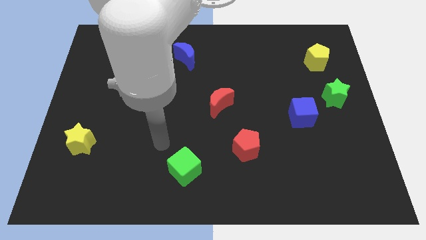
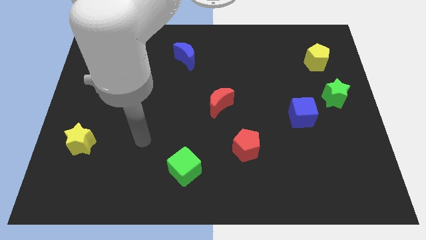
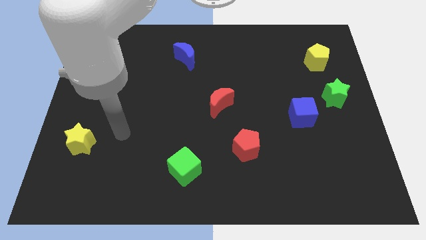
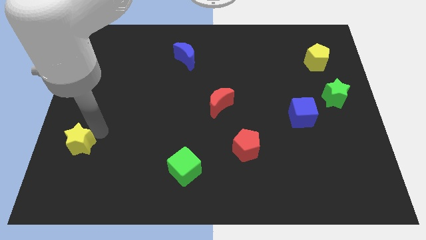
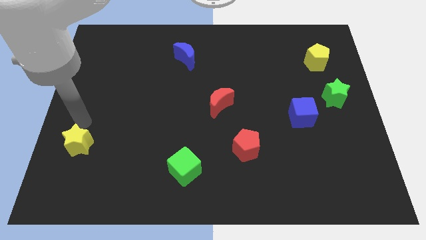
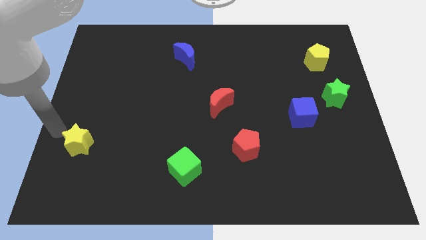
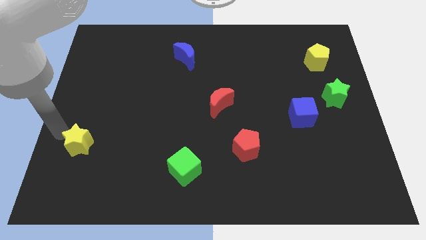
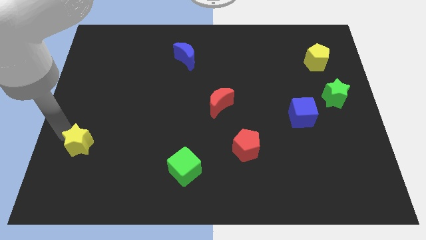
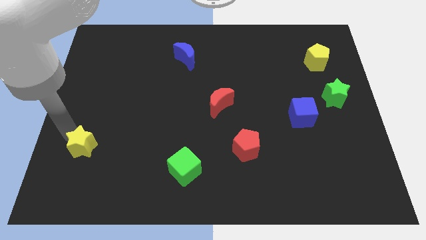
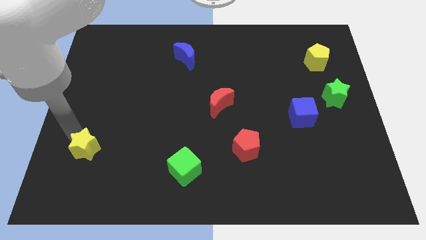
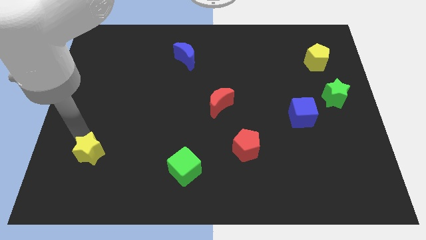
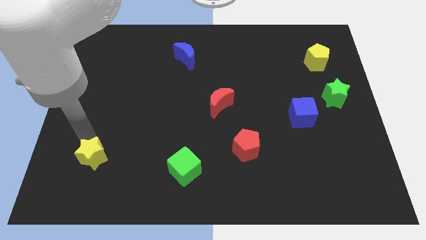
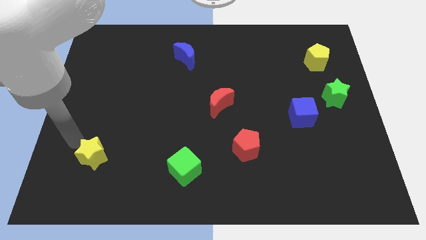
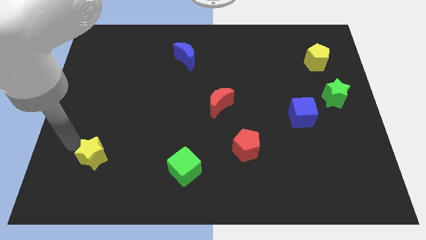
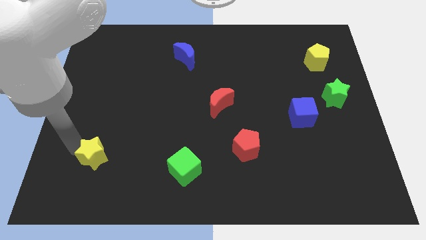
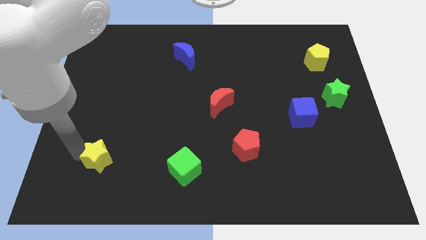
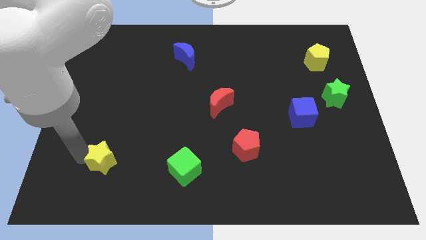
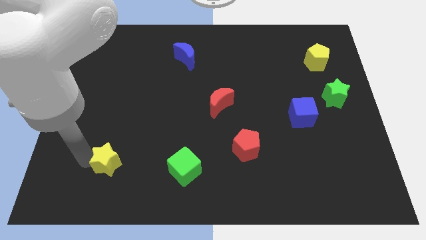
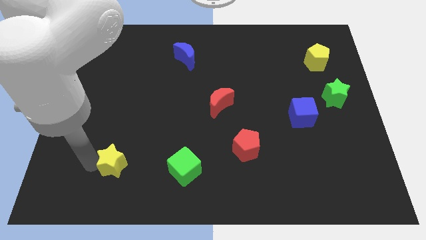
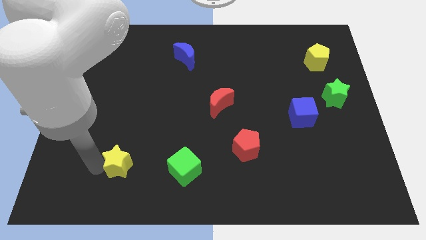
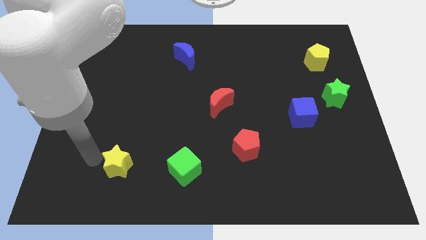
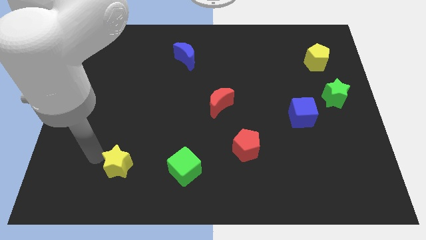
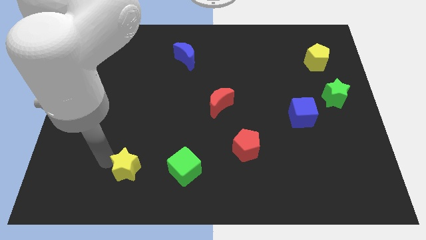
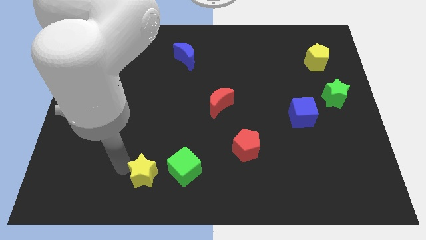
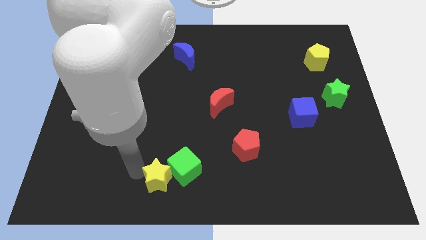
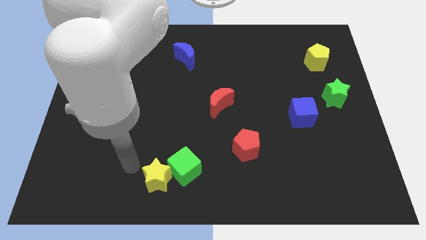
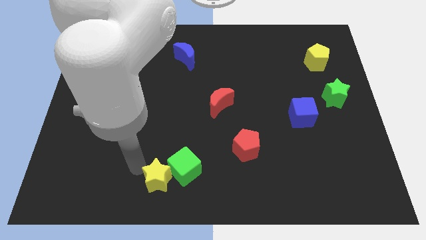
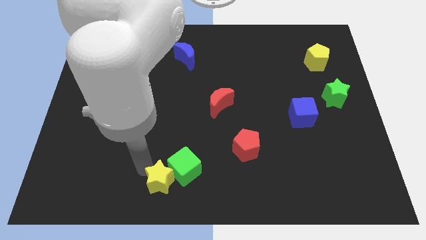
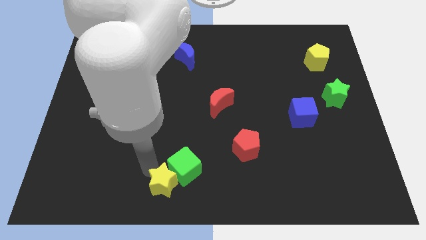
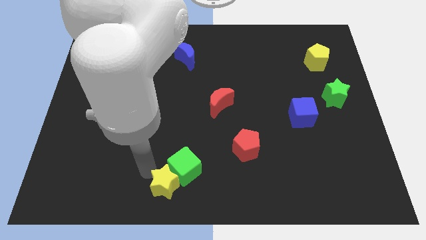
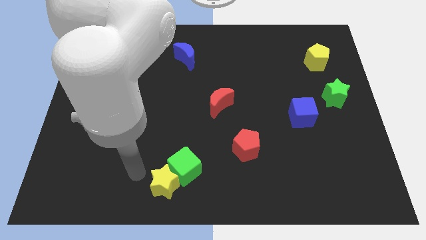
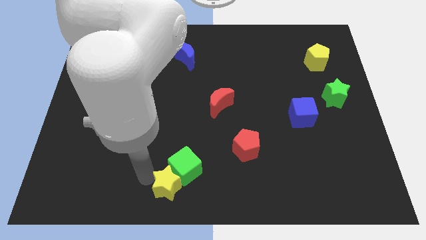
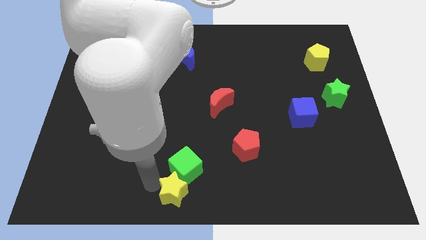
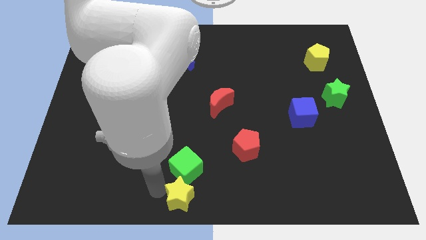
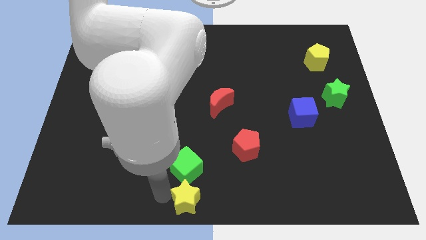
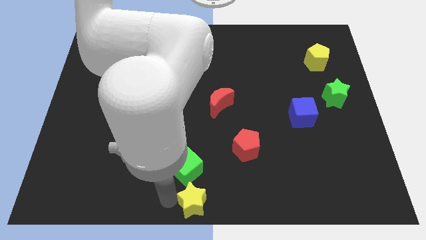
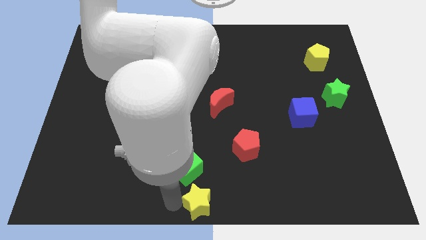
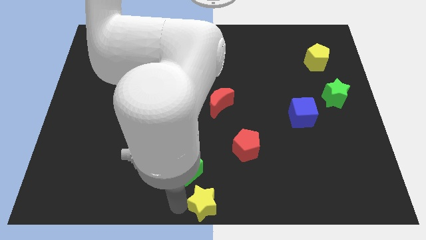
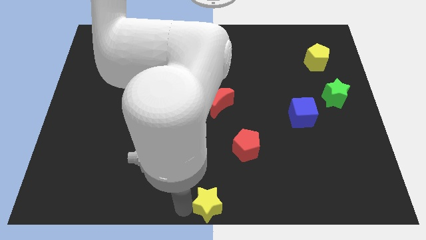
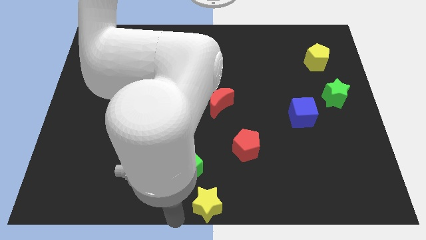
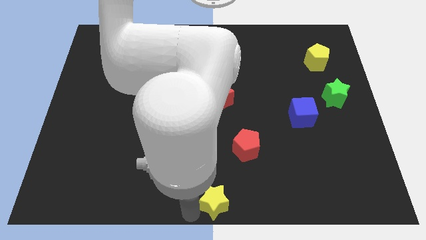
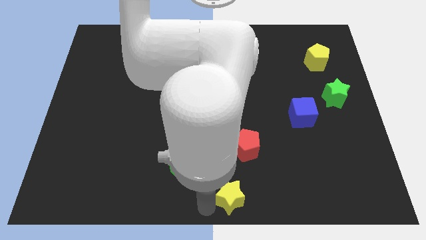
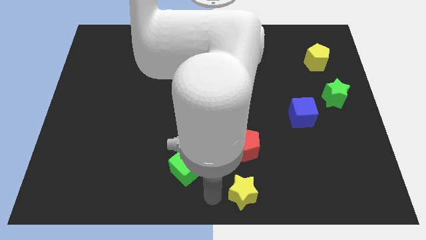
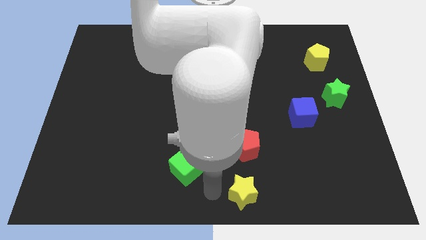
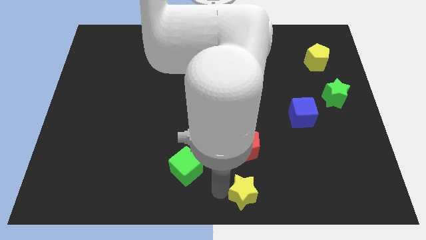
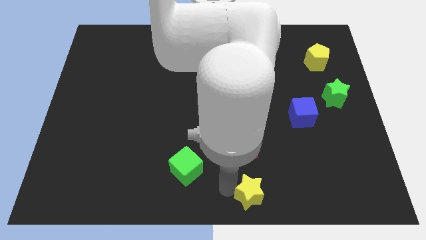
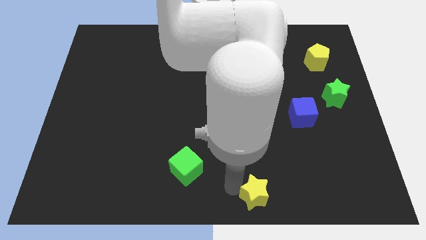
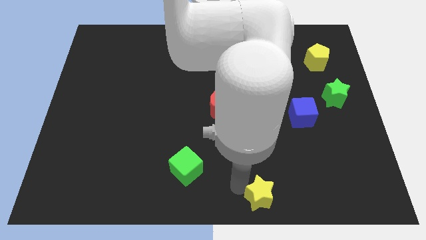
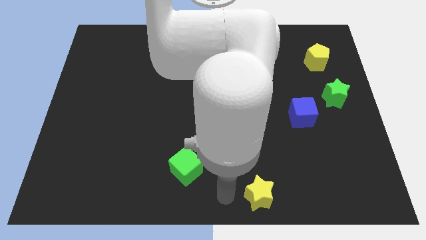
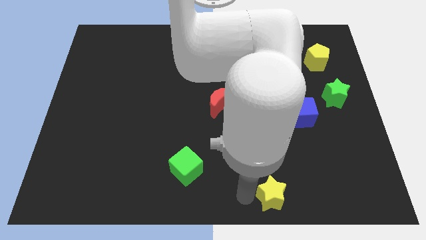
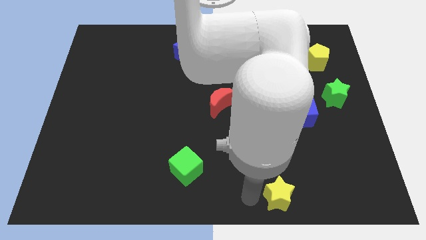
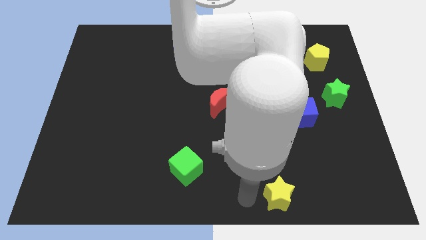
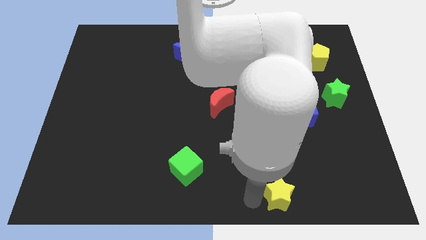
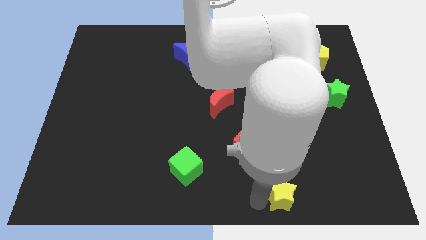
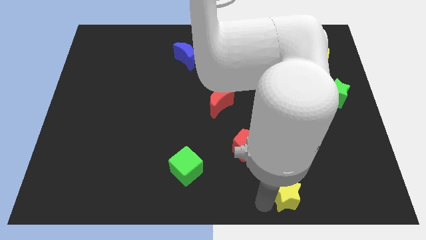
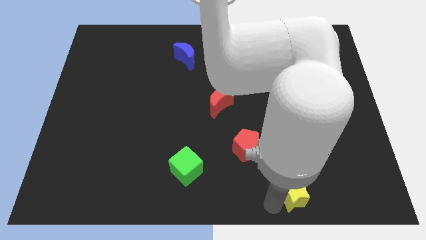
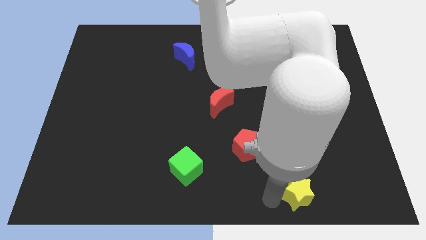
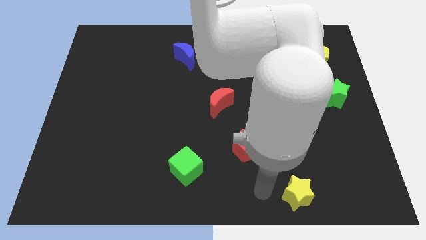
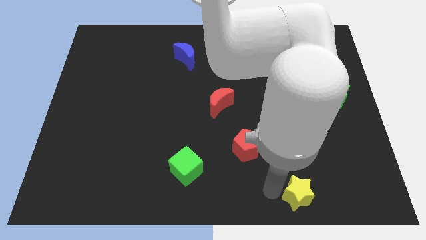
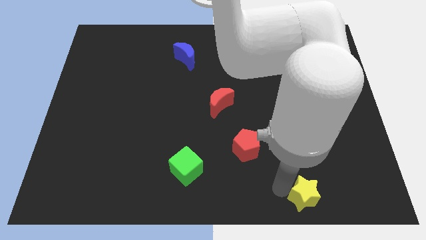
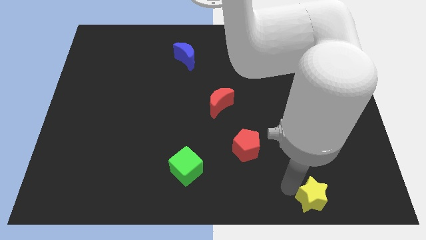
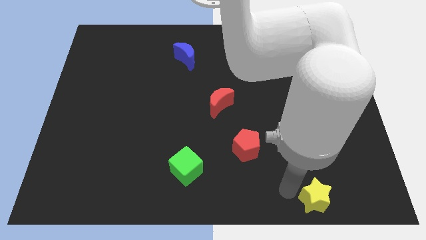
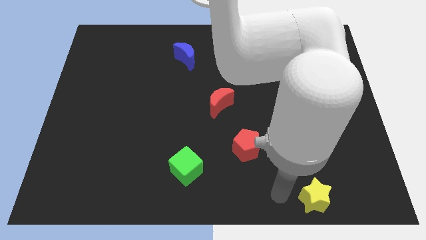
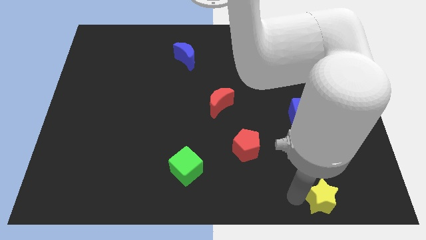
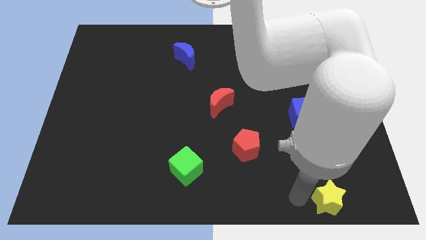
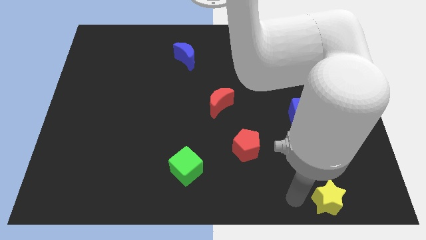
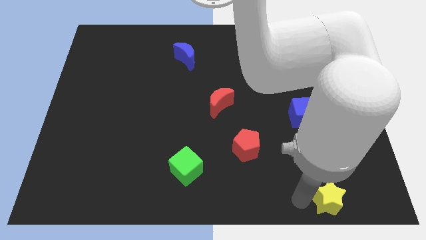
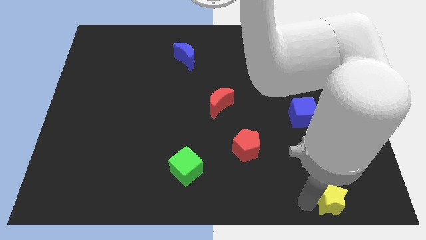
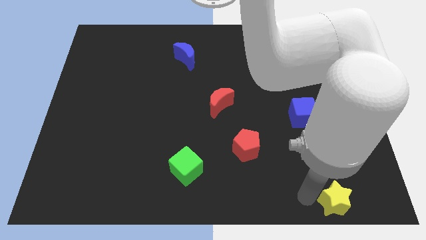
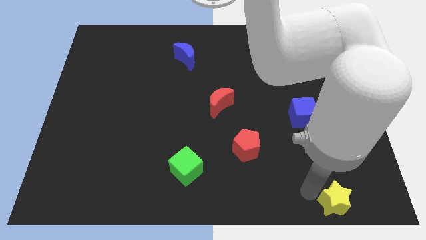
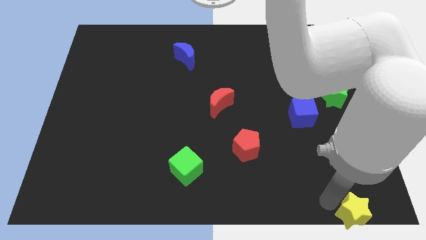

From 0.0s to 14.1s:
push the yellow star to the bottom right corner
